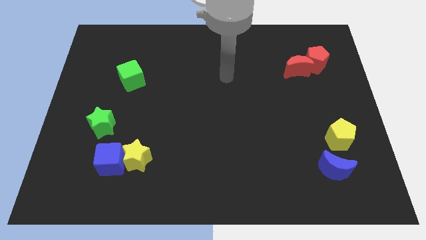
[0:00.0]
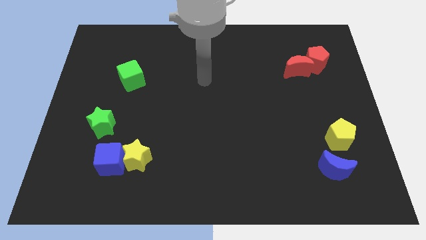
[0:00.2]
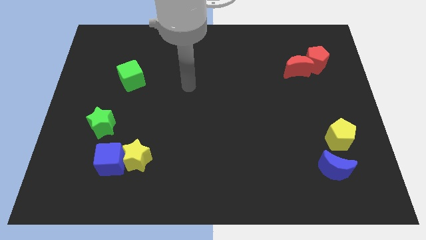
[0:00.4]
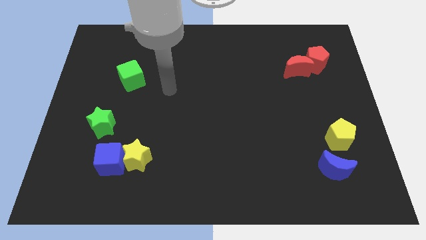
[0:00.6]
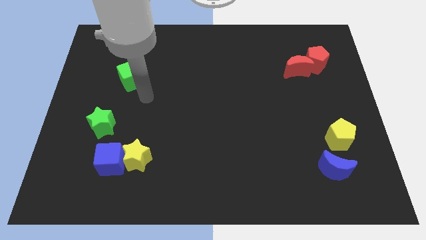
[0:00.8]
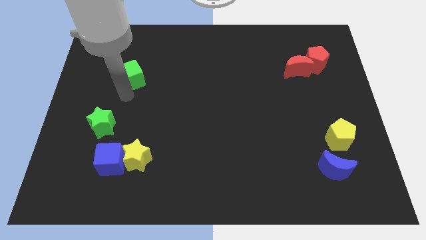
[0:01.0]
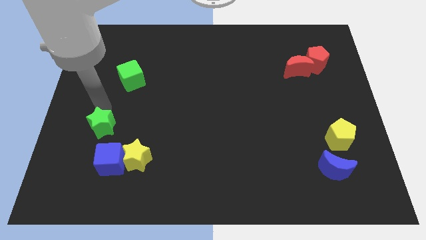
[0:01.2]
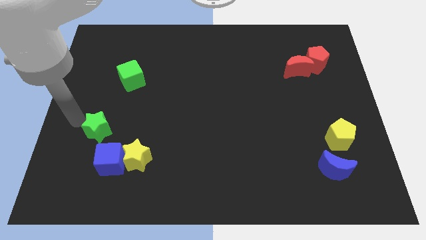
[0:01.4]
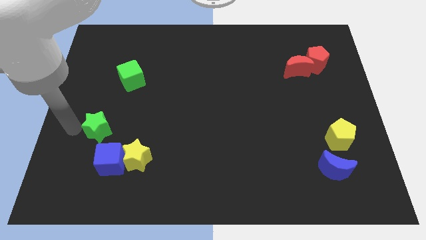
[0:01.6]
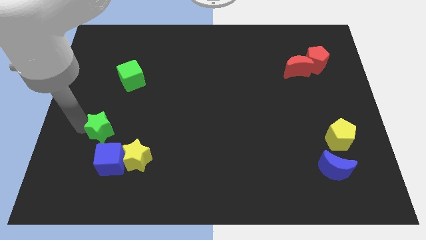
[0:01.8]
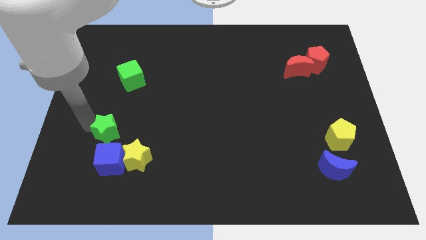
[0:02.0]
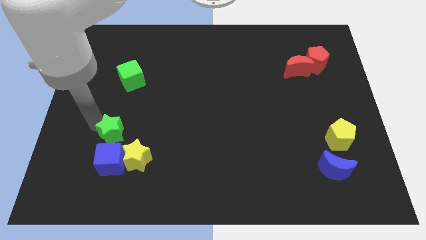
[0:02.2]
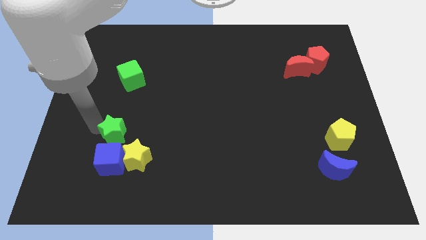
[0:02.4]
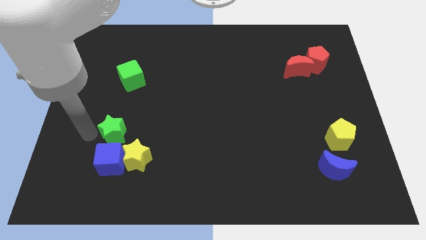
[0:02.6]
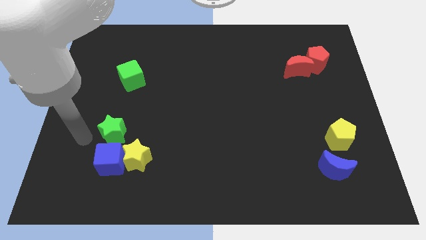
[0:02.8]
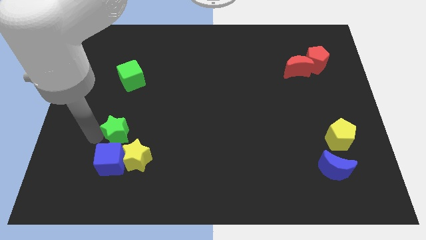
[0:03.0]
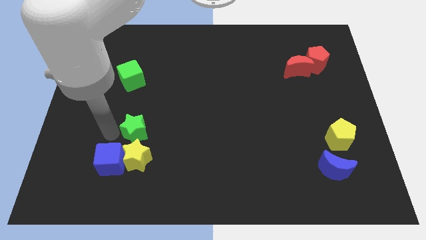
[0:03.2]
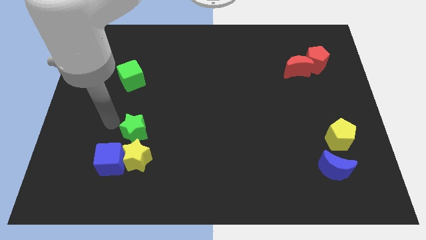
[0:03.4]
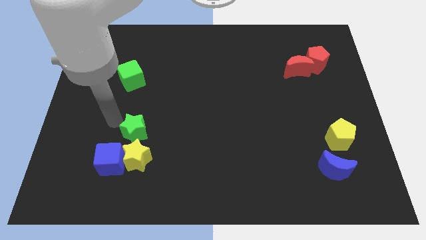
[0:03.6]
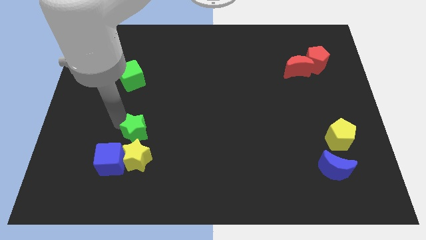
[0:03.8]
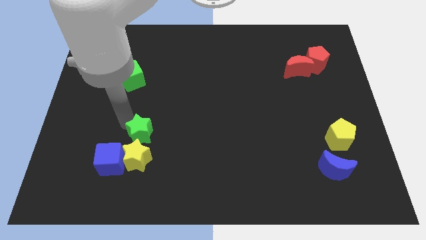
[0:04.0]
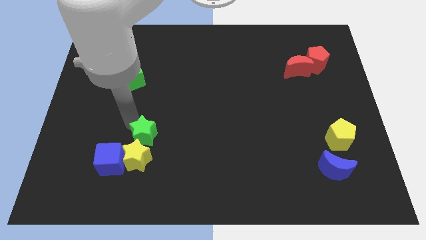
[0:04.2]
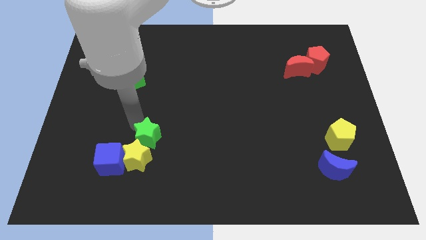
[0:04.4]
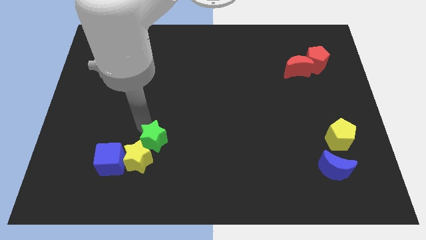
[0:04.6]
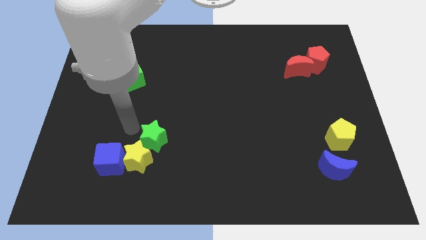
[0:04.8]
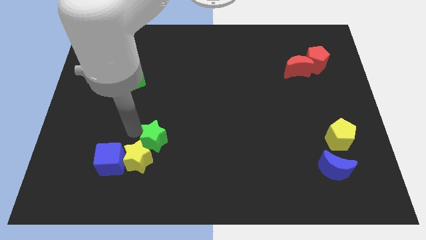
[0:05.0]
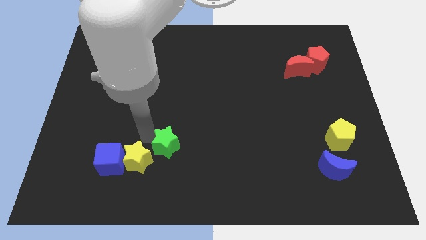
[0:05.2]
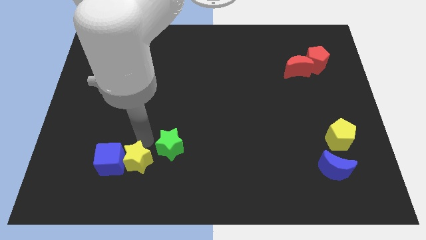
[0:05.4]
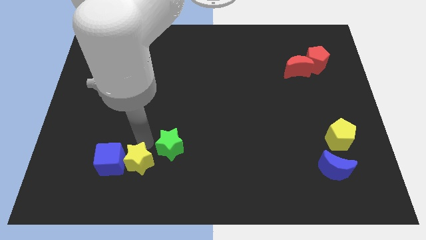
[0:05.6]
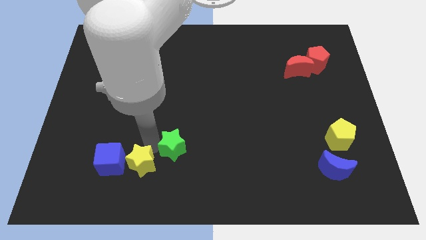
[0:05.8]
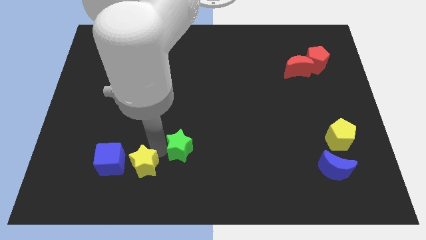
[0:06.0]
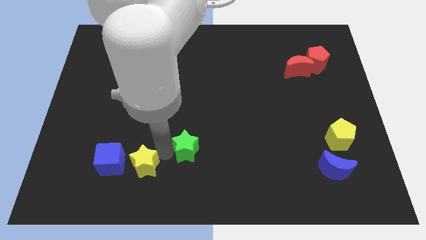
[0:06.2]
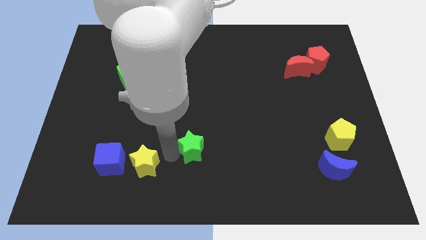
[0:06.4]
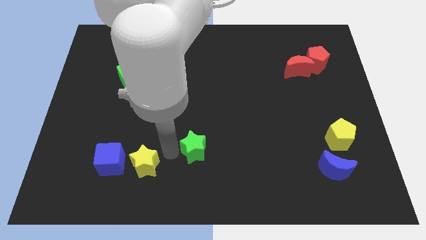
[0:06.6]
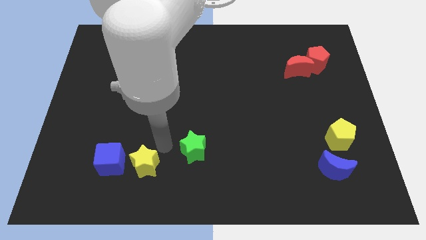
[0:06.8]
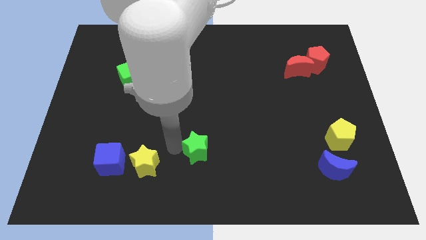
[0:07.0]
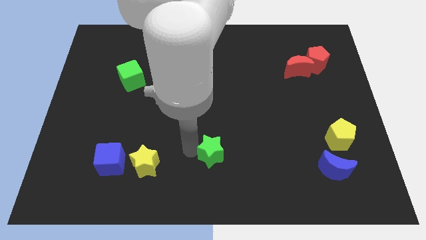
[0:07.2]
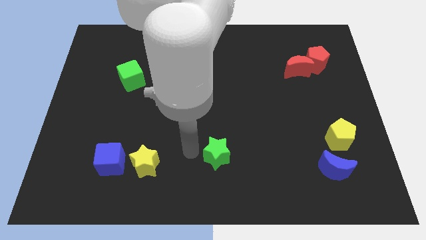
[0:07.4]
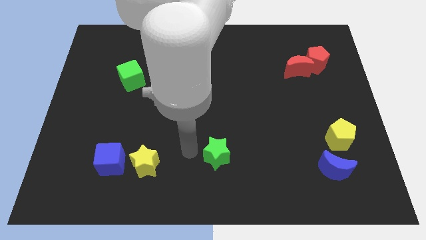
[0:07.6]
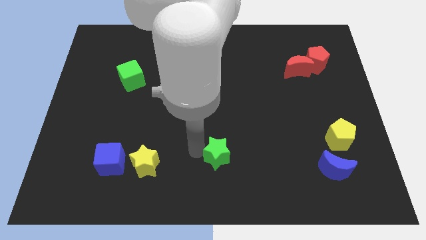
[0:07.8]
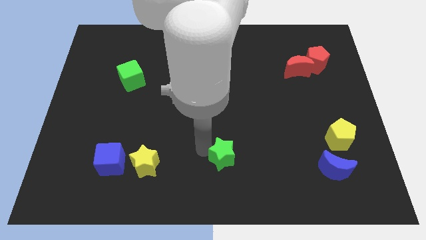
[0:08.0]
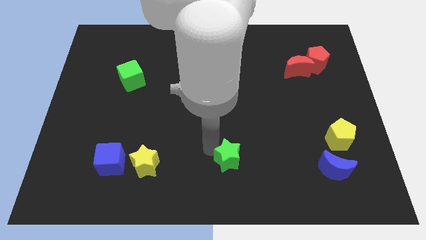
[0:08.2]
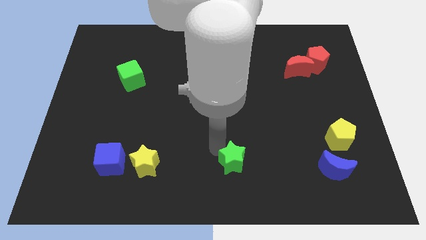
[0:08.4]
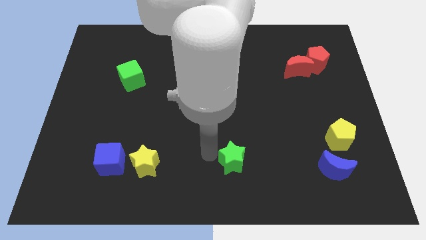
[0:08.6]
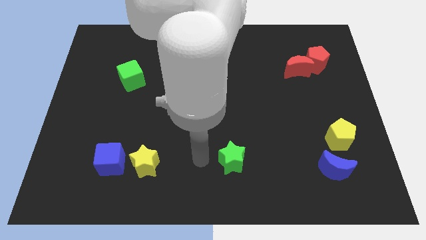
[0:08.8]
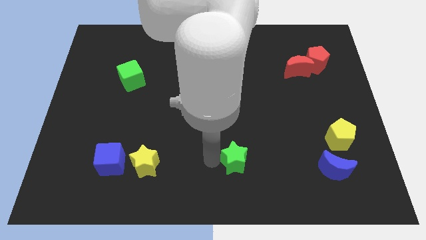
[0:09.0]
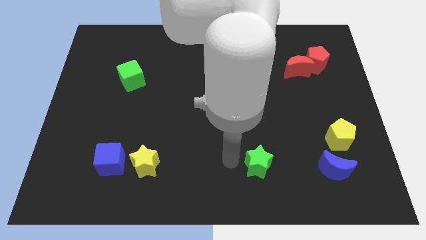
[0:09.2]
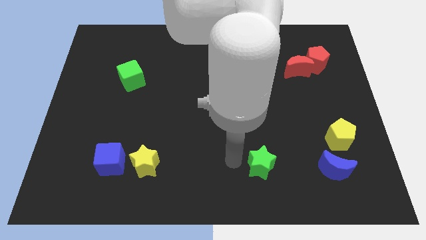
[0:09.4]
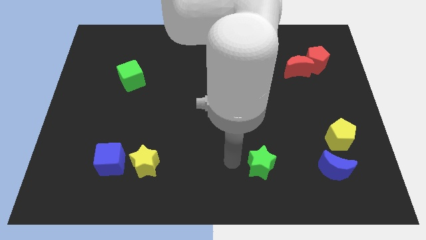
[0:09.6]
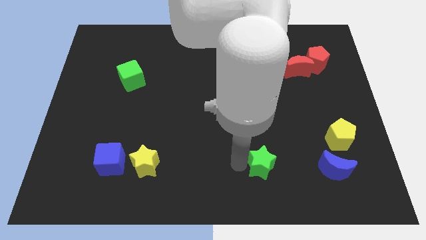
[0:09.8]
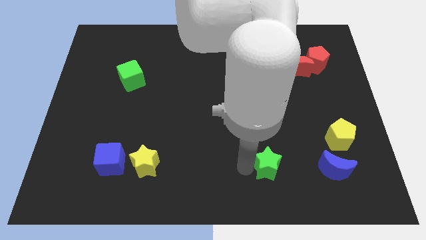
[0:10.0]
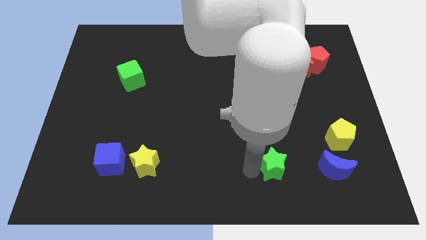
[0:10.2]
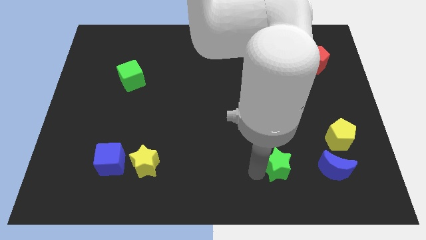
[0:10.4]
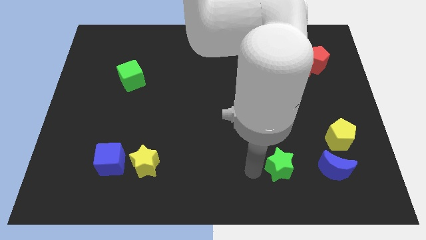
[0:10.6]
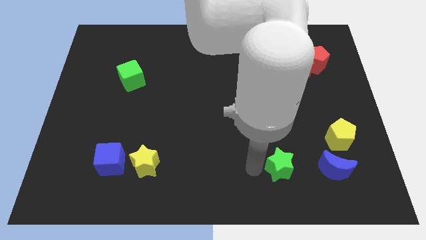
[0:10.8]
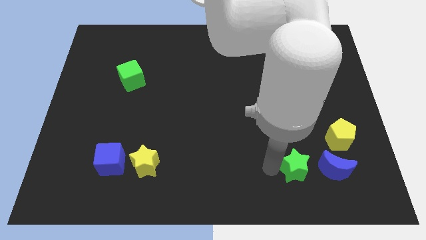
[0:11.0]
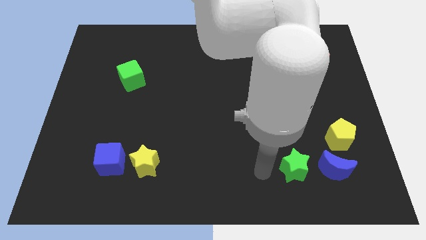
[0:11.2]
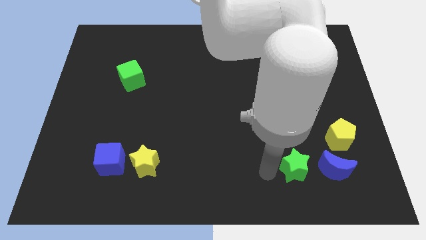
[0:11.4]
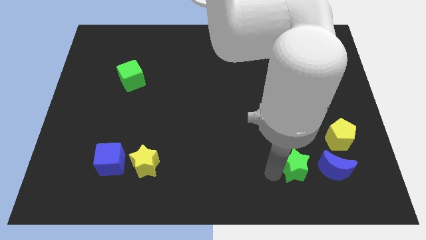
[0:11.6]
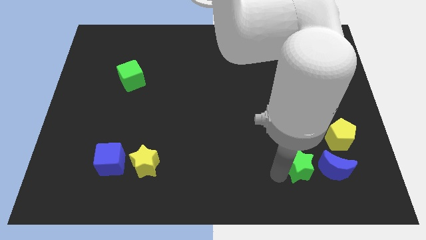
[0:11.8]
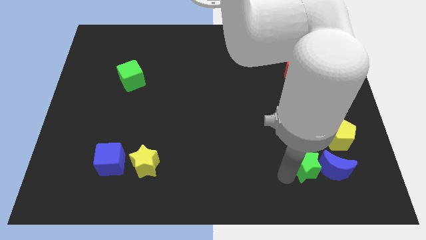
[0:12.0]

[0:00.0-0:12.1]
put the green star next to the blue moon
